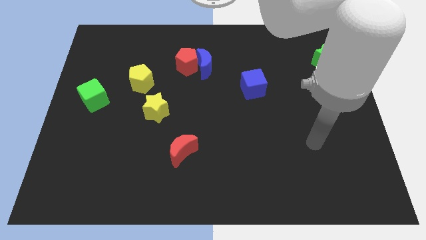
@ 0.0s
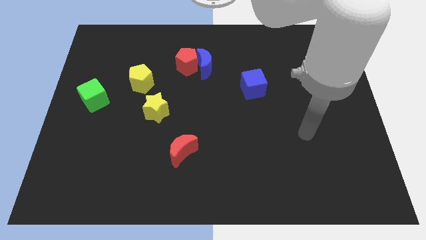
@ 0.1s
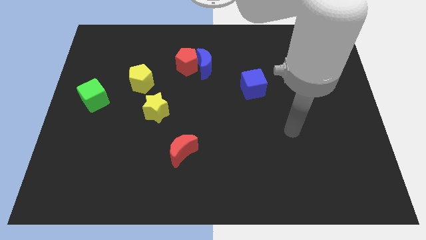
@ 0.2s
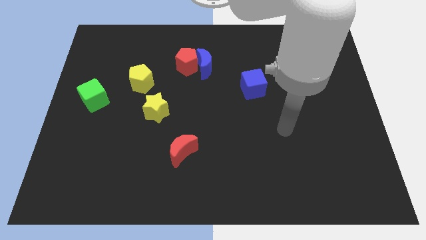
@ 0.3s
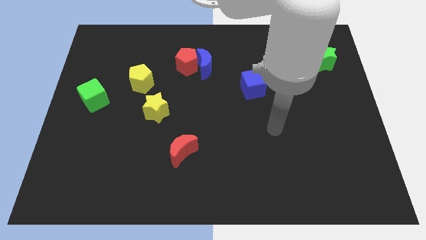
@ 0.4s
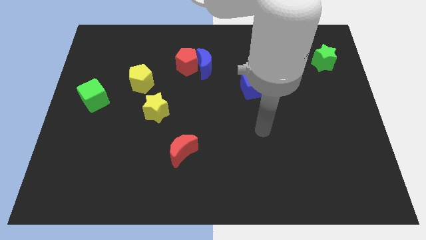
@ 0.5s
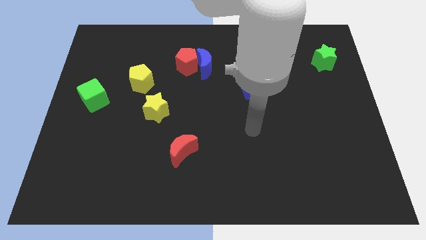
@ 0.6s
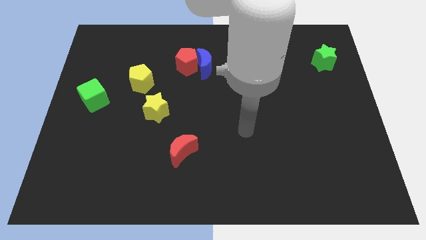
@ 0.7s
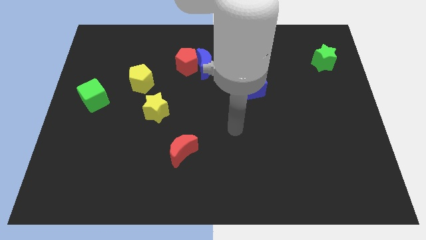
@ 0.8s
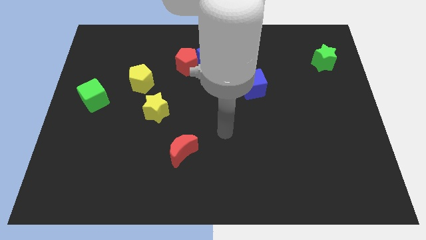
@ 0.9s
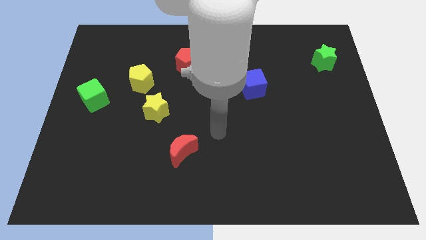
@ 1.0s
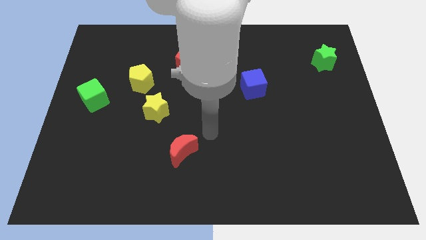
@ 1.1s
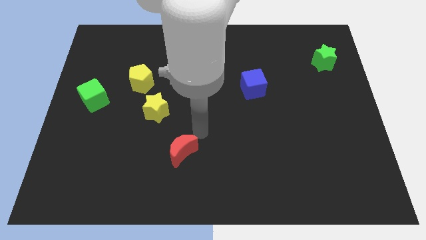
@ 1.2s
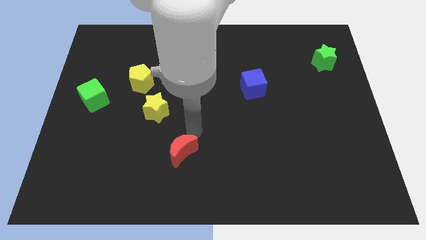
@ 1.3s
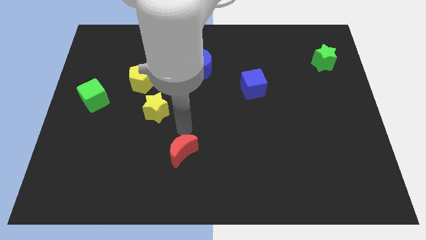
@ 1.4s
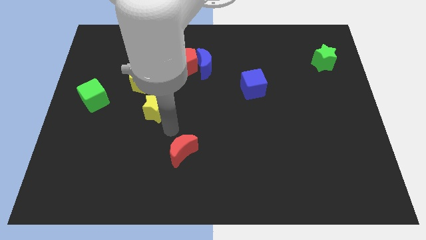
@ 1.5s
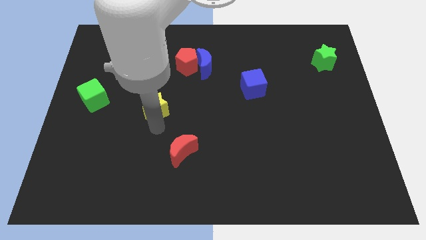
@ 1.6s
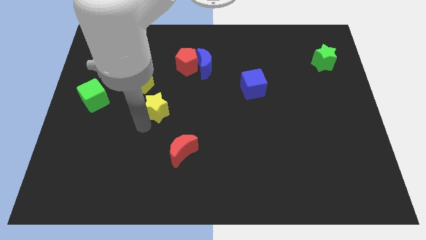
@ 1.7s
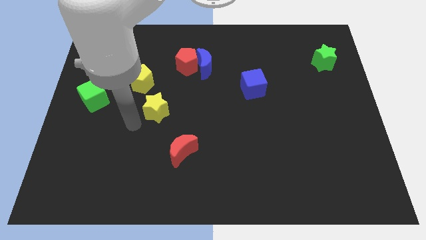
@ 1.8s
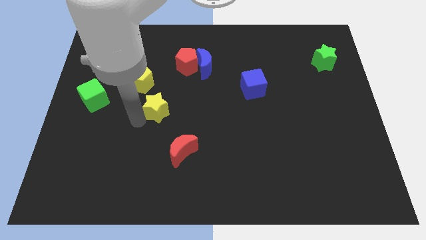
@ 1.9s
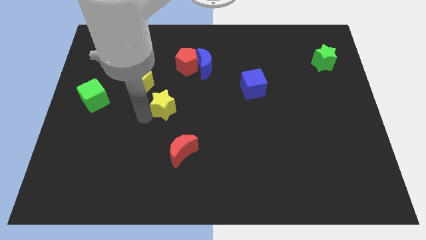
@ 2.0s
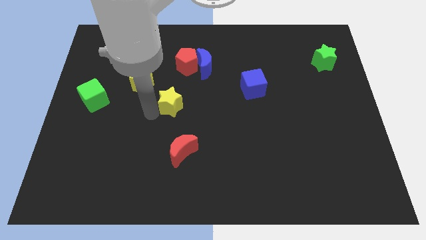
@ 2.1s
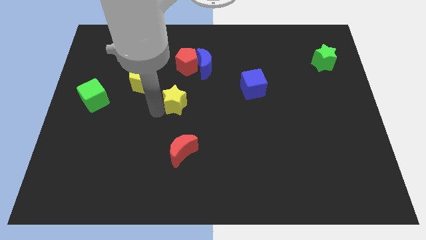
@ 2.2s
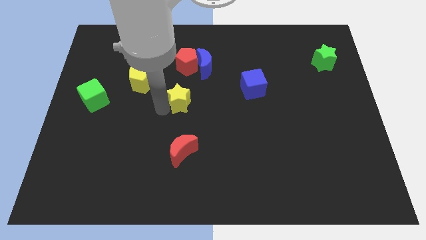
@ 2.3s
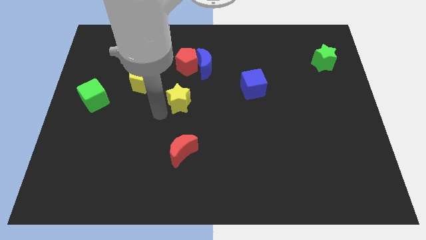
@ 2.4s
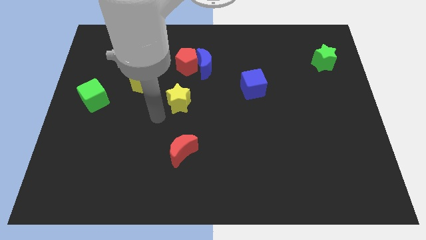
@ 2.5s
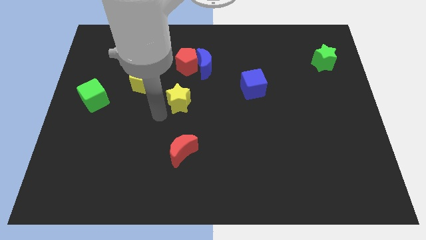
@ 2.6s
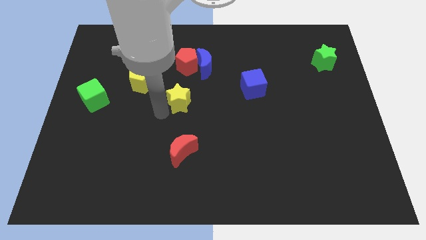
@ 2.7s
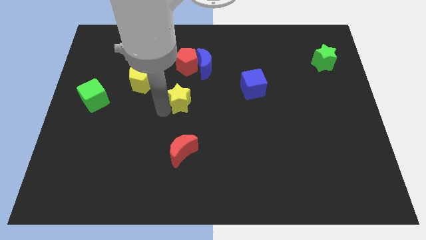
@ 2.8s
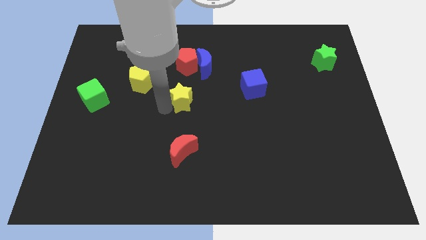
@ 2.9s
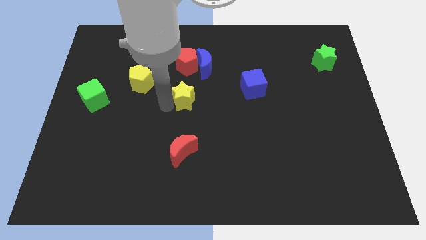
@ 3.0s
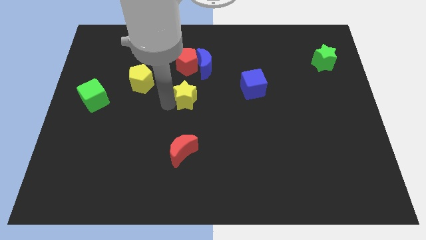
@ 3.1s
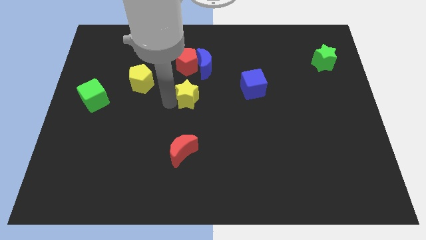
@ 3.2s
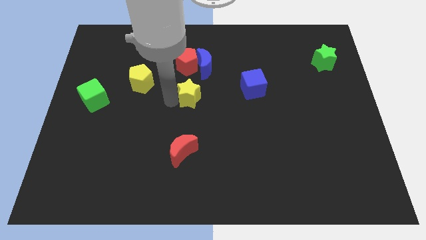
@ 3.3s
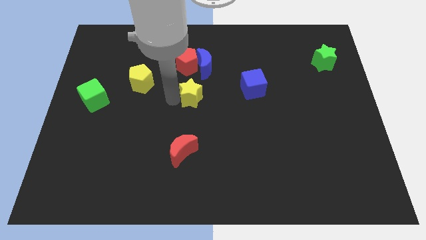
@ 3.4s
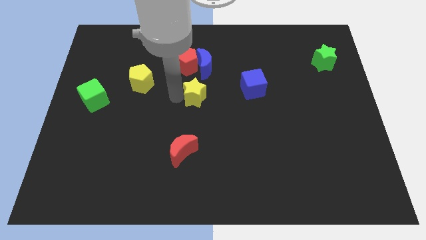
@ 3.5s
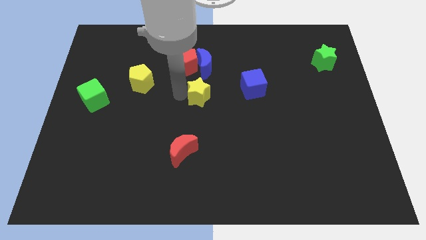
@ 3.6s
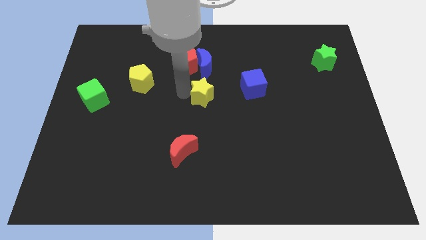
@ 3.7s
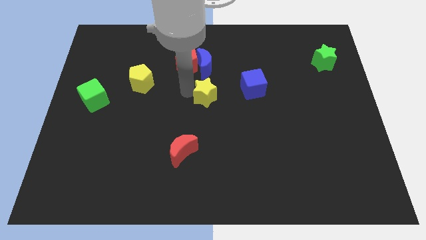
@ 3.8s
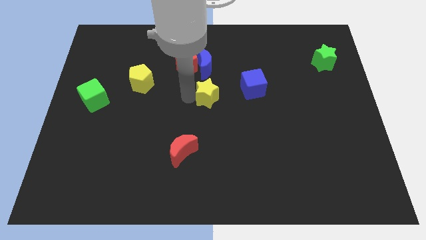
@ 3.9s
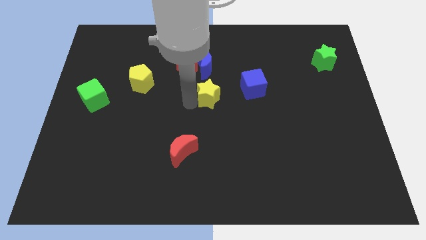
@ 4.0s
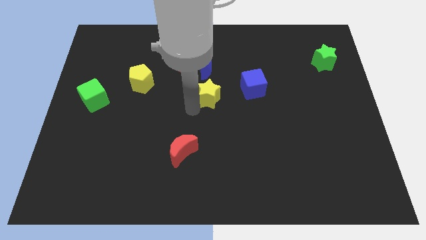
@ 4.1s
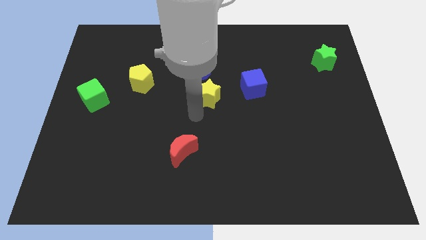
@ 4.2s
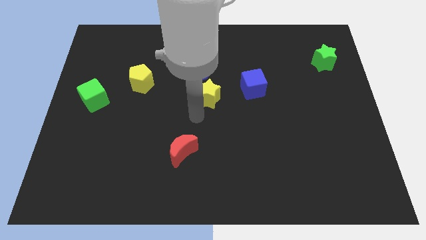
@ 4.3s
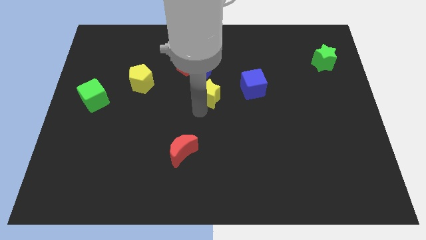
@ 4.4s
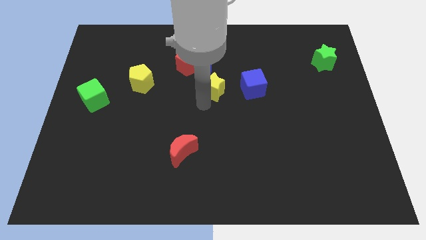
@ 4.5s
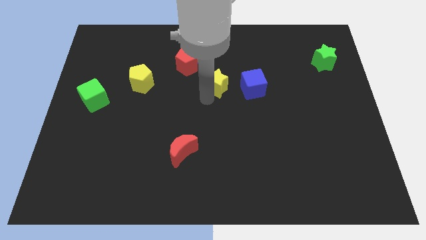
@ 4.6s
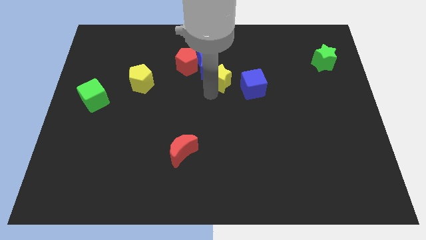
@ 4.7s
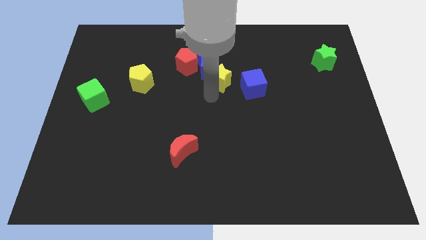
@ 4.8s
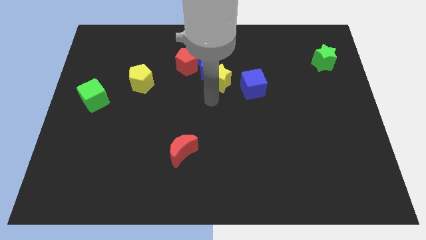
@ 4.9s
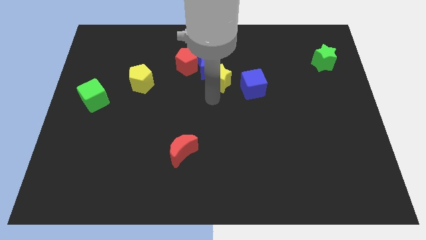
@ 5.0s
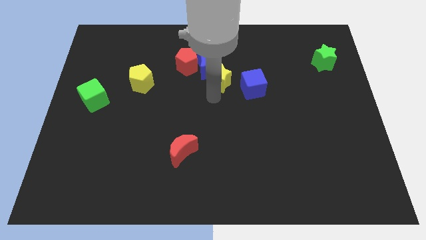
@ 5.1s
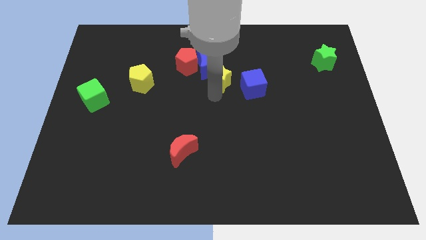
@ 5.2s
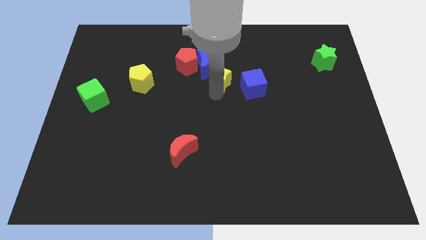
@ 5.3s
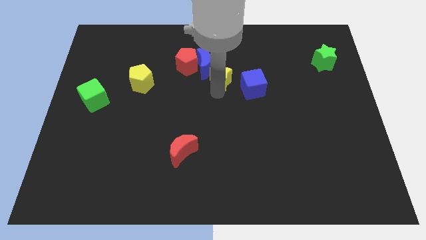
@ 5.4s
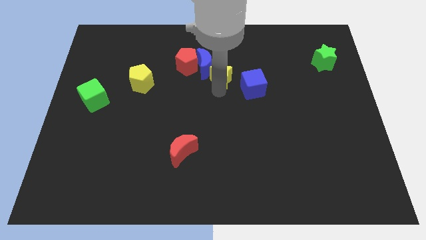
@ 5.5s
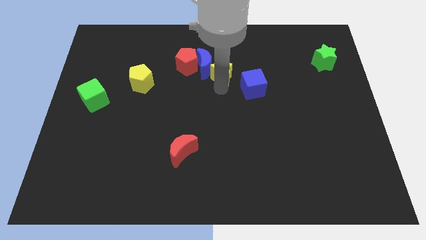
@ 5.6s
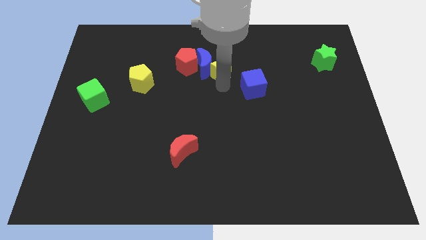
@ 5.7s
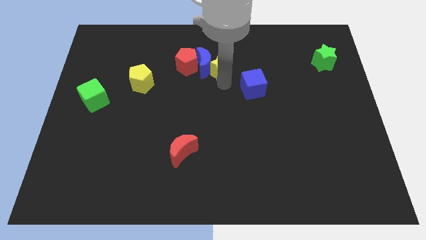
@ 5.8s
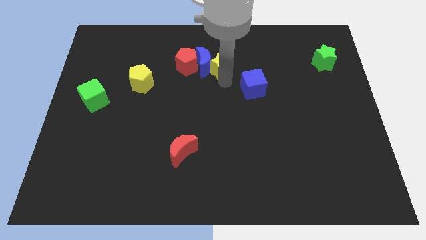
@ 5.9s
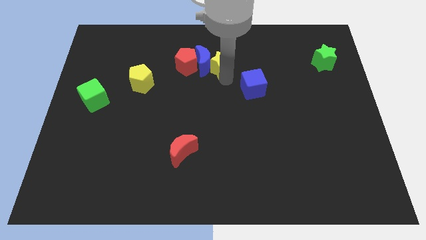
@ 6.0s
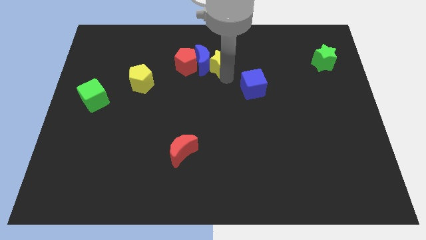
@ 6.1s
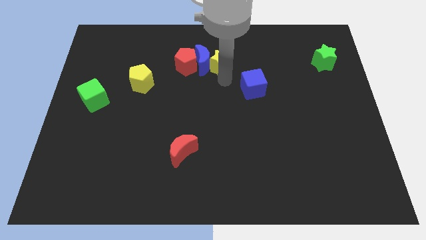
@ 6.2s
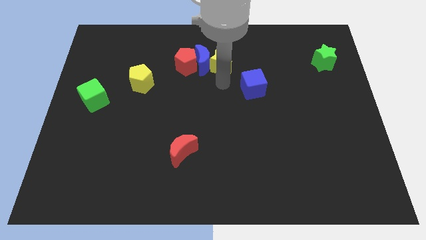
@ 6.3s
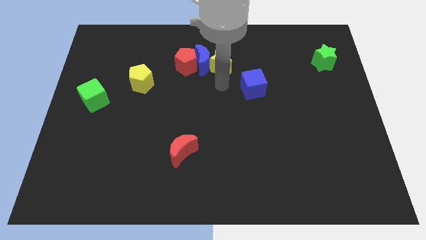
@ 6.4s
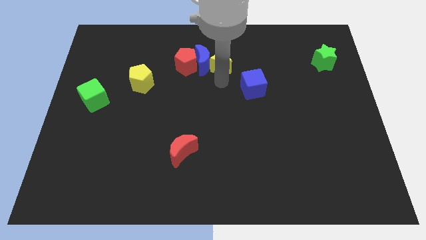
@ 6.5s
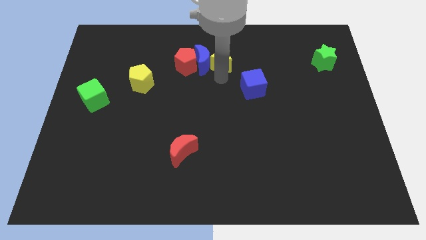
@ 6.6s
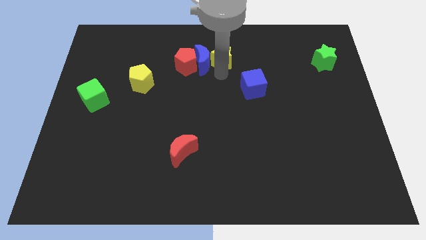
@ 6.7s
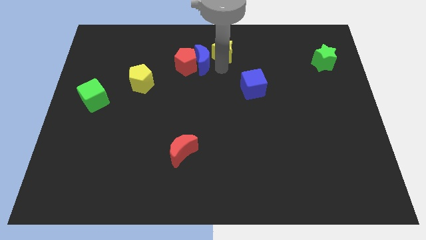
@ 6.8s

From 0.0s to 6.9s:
push the yellow star to the top
